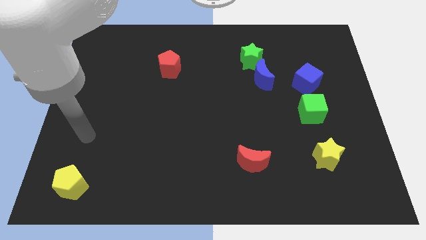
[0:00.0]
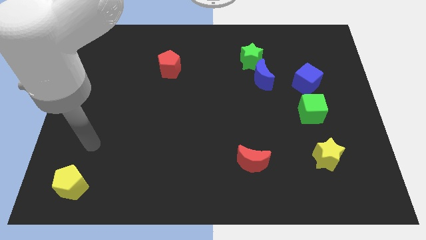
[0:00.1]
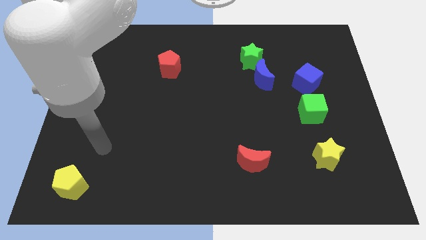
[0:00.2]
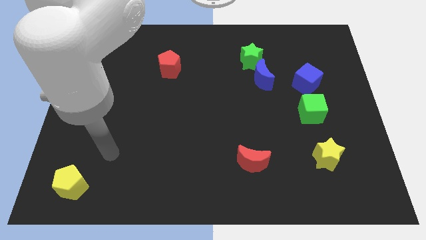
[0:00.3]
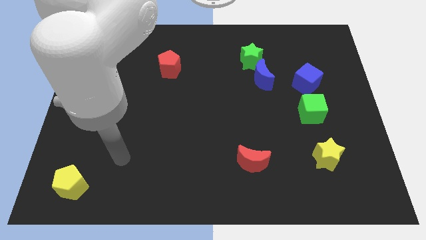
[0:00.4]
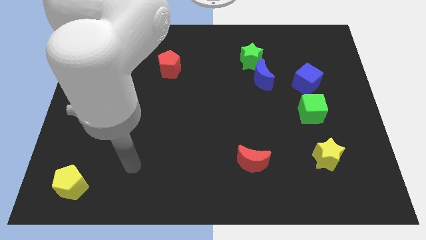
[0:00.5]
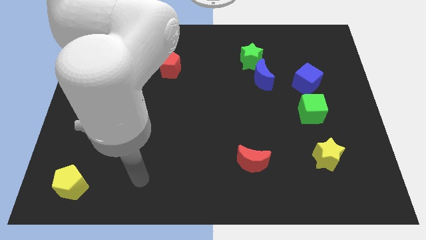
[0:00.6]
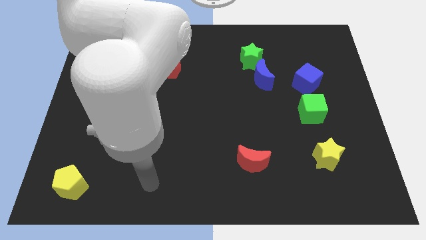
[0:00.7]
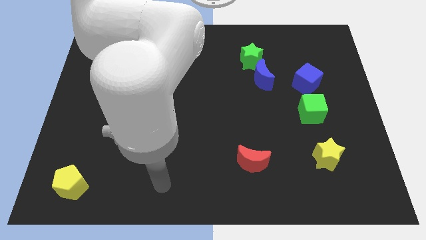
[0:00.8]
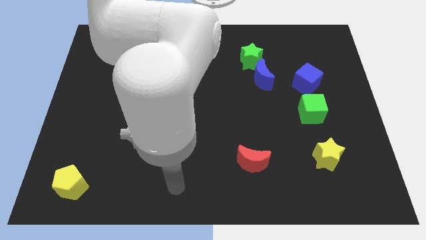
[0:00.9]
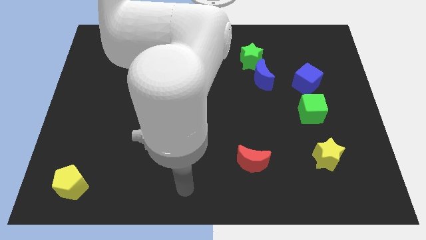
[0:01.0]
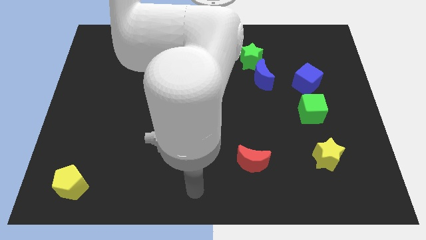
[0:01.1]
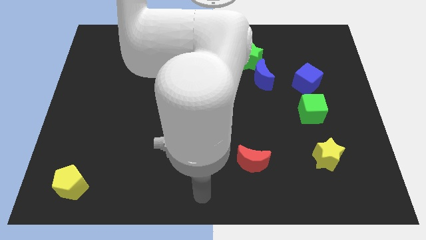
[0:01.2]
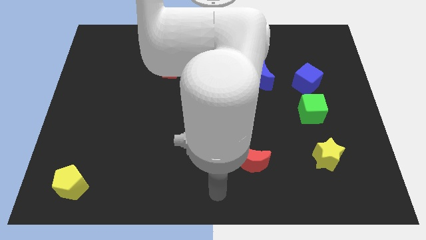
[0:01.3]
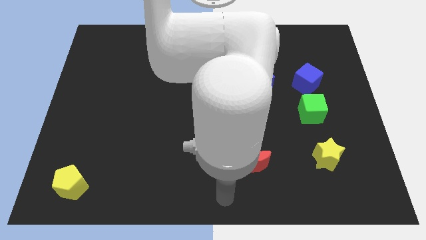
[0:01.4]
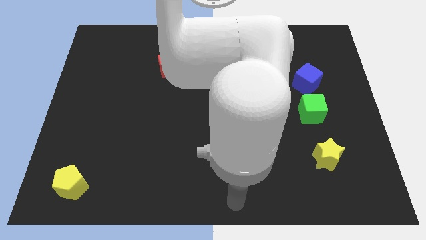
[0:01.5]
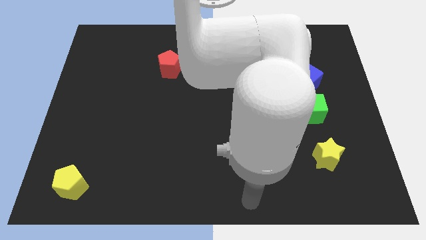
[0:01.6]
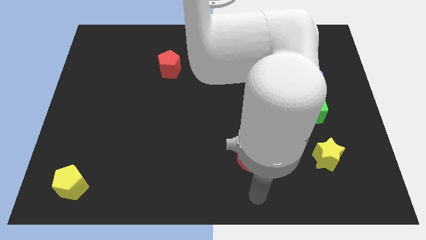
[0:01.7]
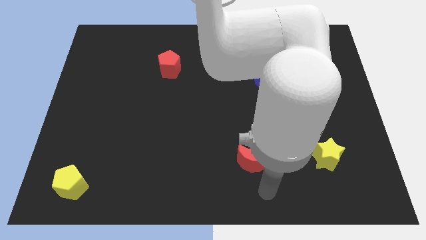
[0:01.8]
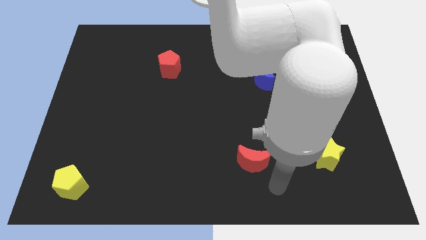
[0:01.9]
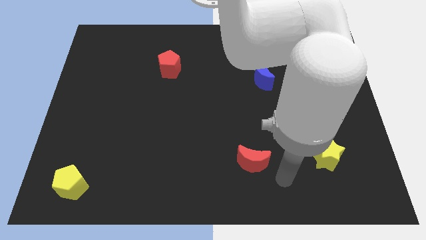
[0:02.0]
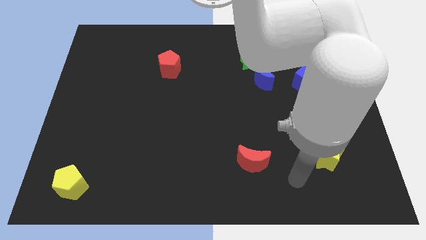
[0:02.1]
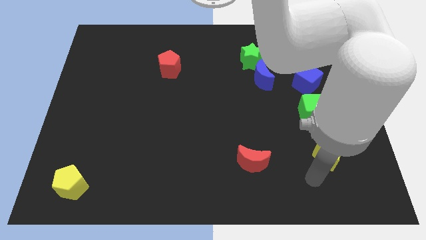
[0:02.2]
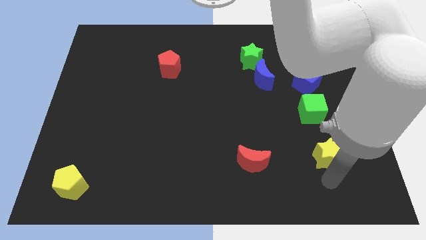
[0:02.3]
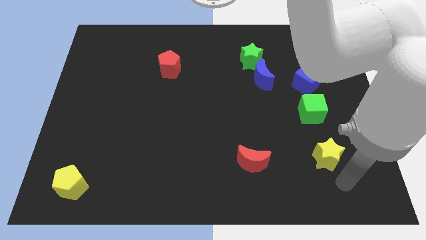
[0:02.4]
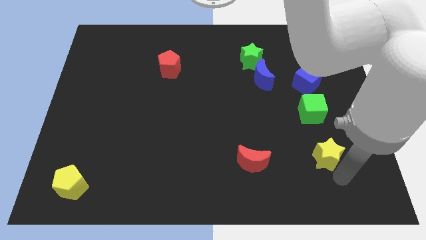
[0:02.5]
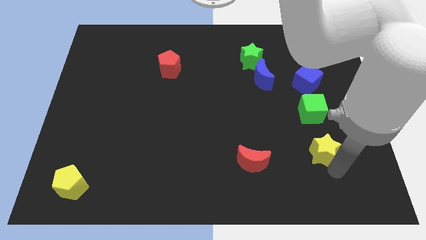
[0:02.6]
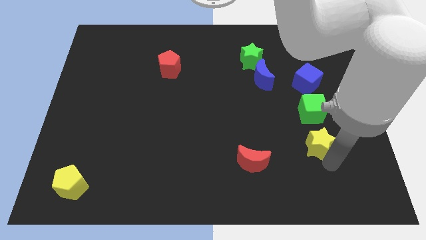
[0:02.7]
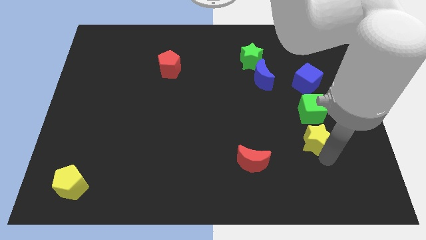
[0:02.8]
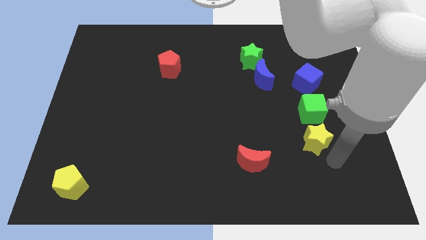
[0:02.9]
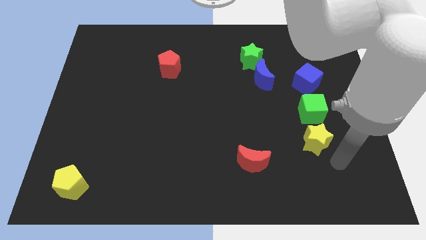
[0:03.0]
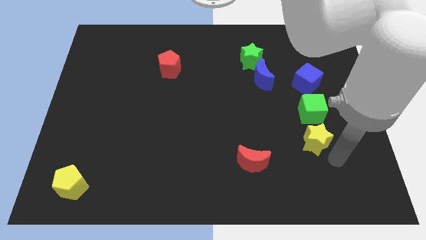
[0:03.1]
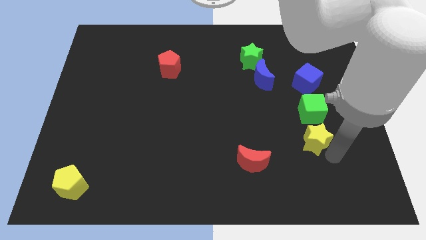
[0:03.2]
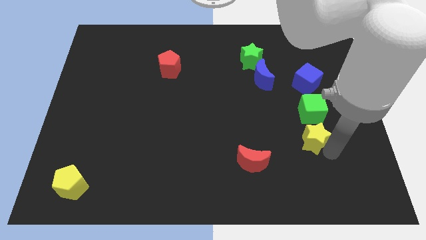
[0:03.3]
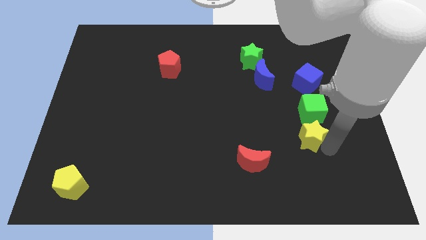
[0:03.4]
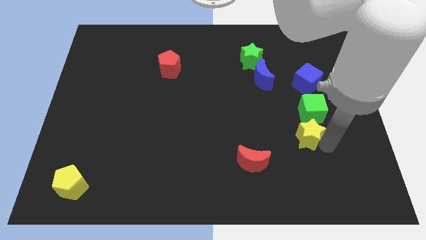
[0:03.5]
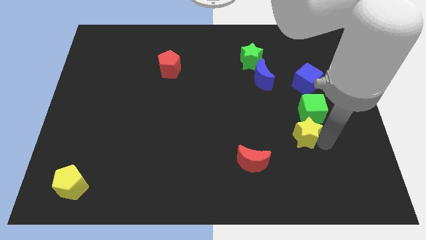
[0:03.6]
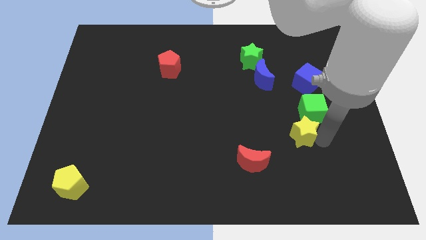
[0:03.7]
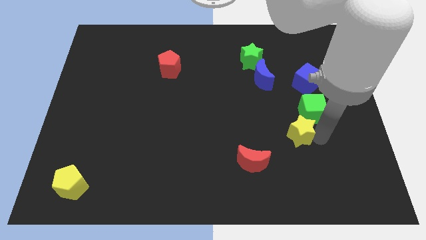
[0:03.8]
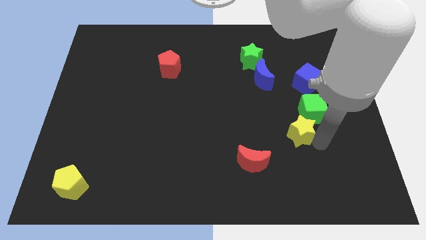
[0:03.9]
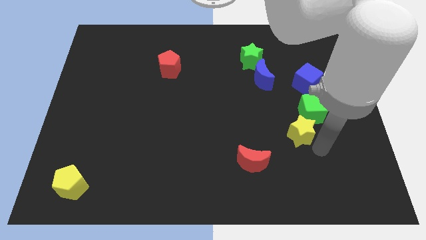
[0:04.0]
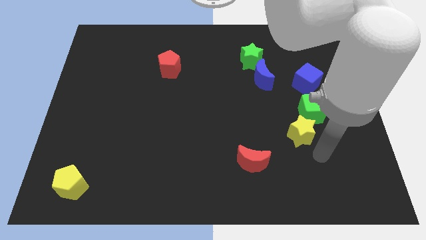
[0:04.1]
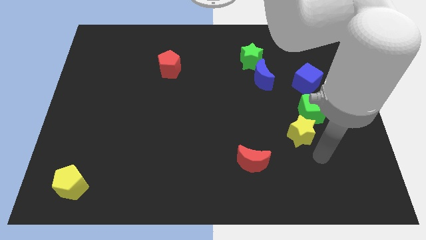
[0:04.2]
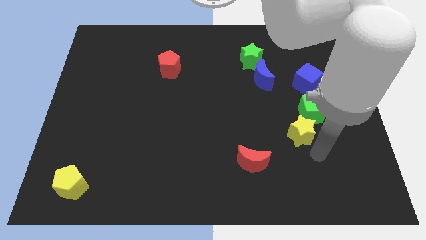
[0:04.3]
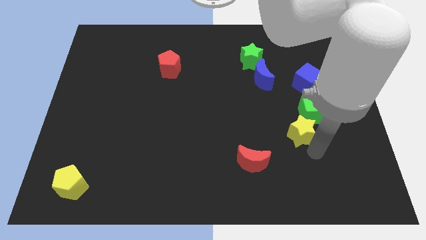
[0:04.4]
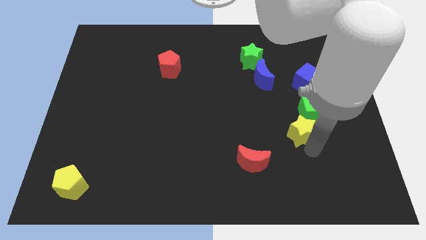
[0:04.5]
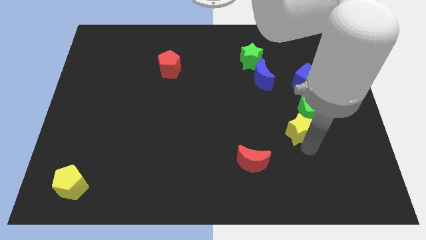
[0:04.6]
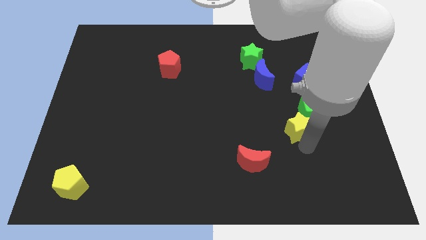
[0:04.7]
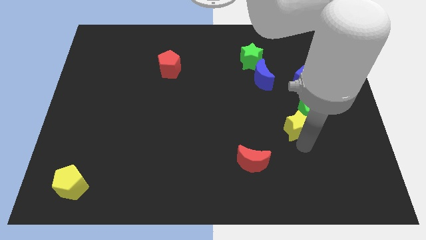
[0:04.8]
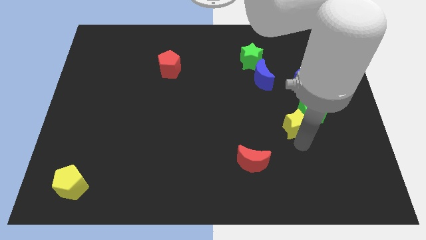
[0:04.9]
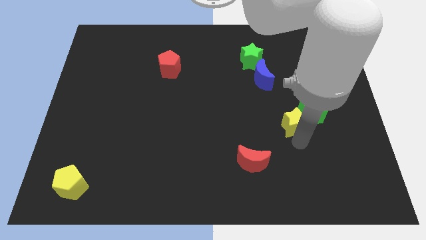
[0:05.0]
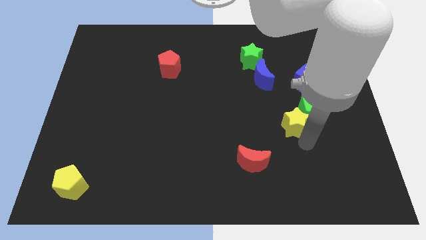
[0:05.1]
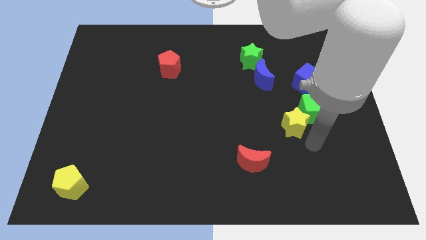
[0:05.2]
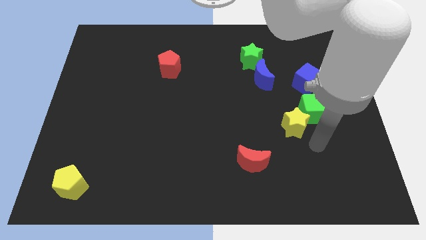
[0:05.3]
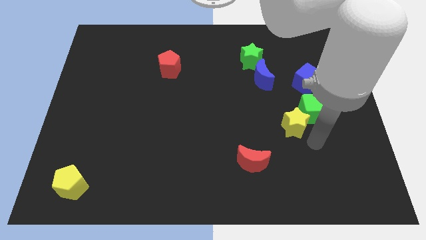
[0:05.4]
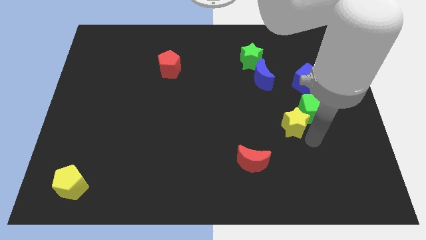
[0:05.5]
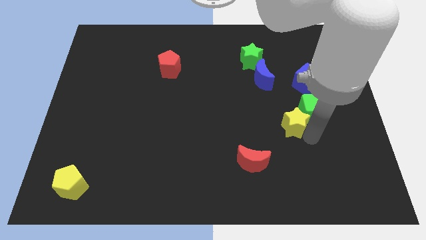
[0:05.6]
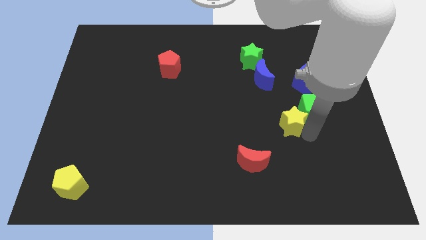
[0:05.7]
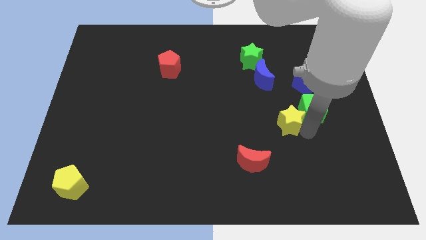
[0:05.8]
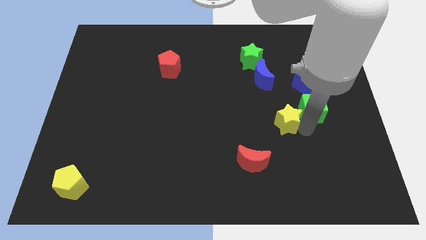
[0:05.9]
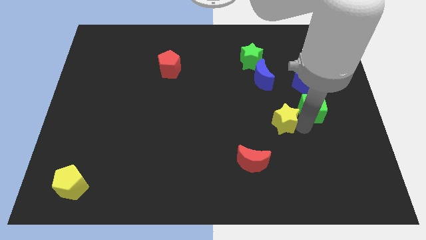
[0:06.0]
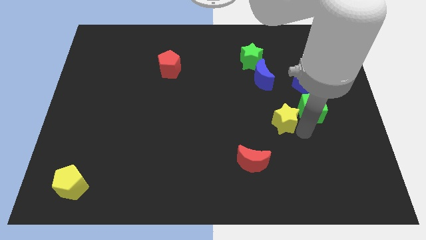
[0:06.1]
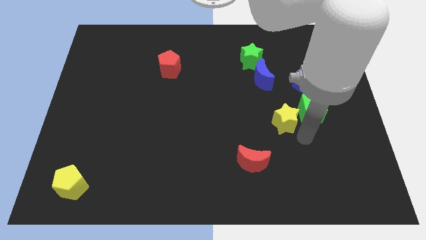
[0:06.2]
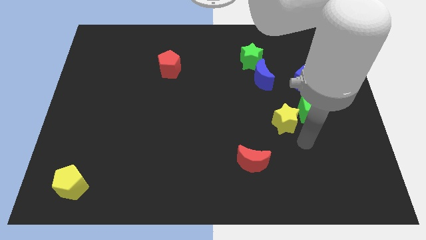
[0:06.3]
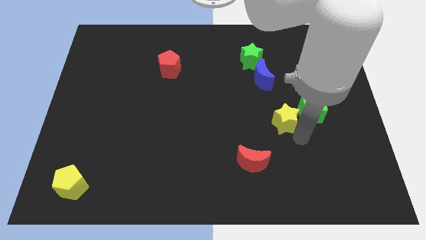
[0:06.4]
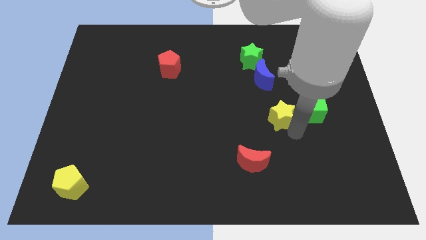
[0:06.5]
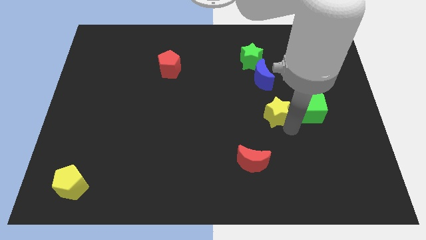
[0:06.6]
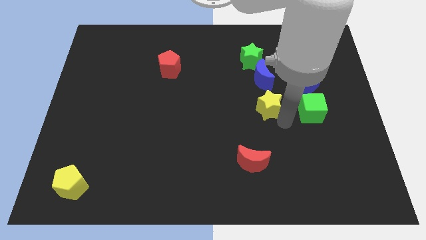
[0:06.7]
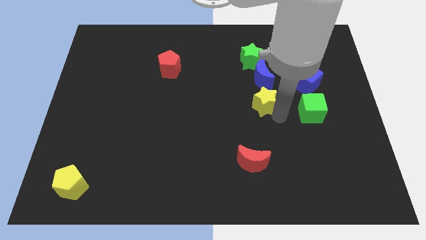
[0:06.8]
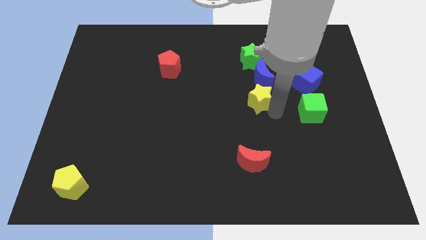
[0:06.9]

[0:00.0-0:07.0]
push the yellow star up and to the left diagonally

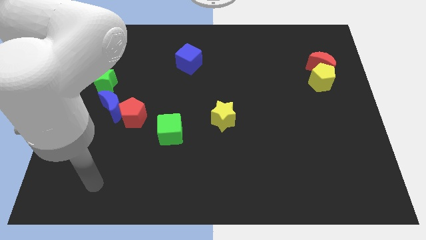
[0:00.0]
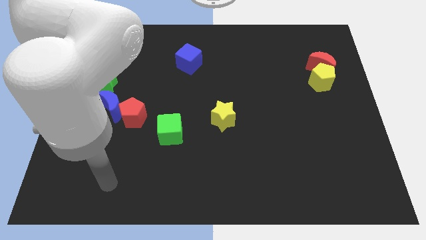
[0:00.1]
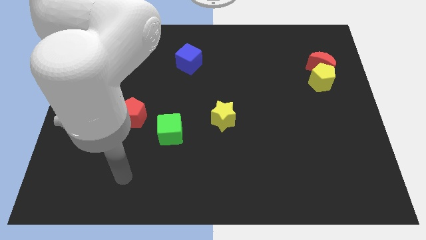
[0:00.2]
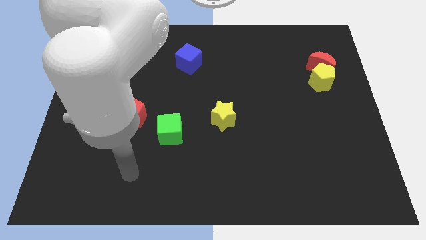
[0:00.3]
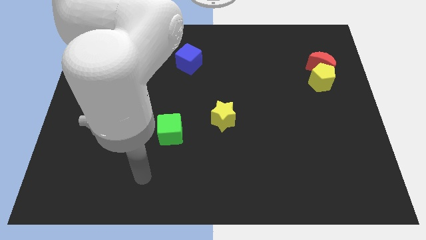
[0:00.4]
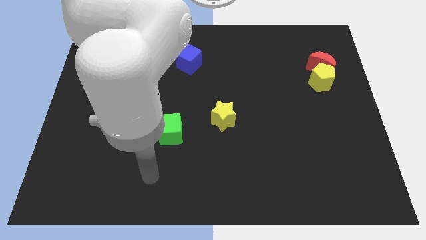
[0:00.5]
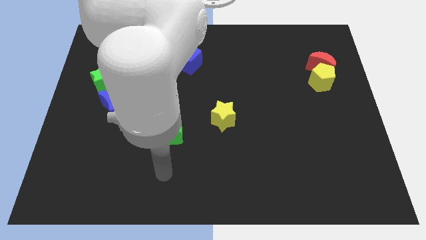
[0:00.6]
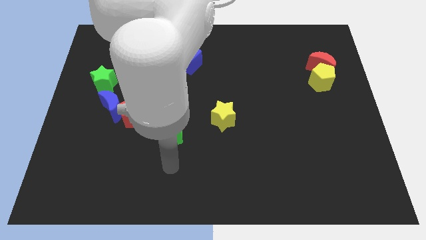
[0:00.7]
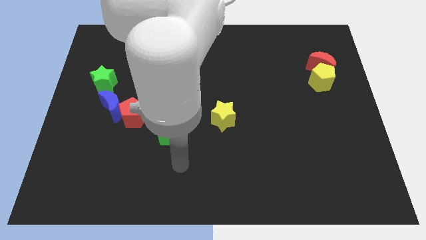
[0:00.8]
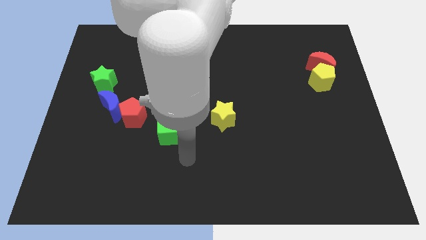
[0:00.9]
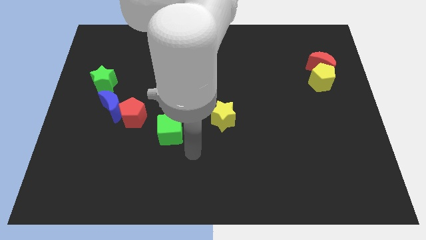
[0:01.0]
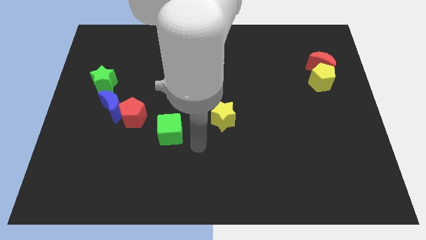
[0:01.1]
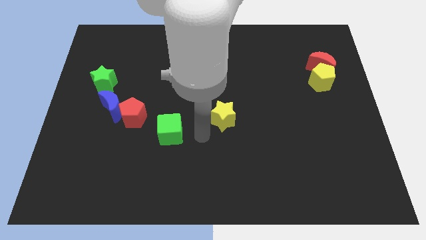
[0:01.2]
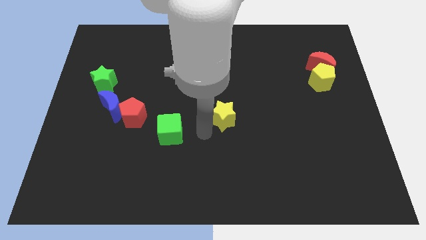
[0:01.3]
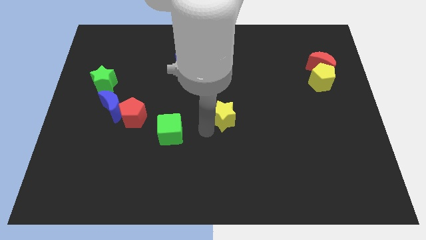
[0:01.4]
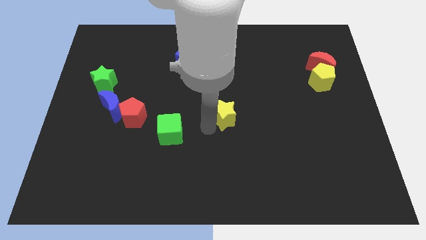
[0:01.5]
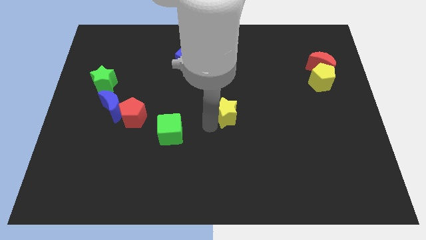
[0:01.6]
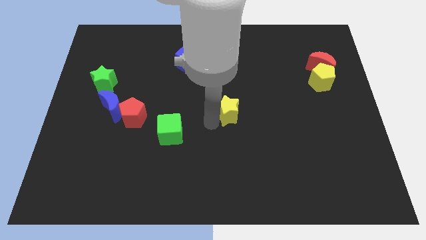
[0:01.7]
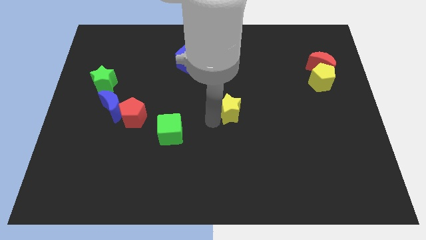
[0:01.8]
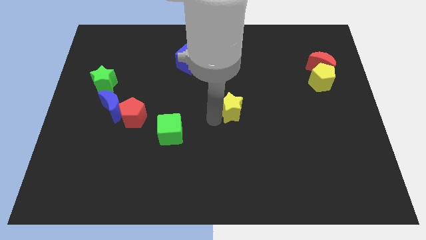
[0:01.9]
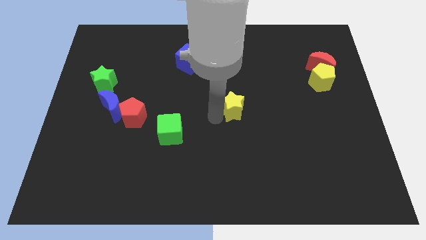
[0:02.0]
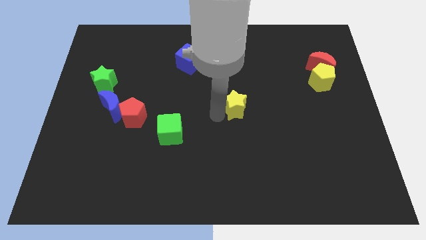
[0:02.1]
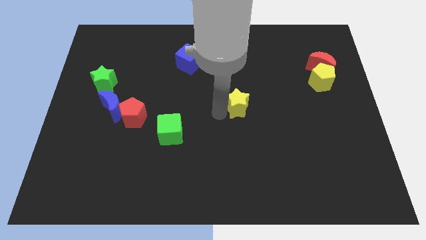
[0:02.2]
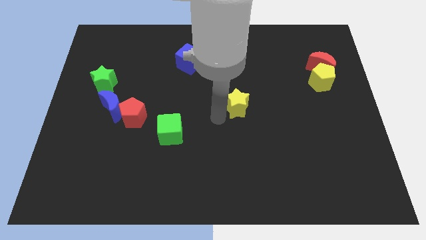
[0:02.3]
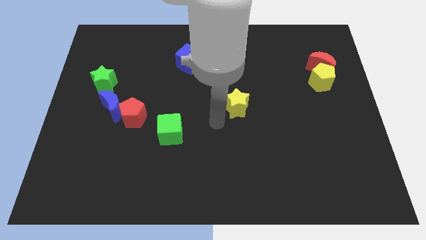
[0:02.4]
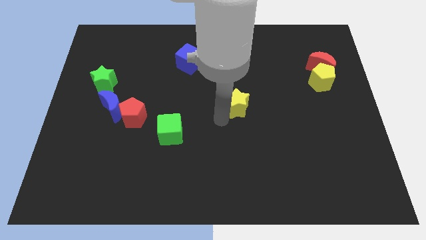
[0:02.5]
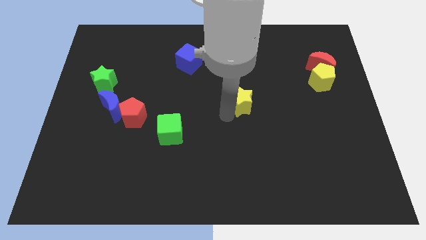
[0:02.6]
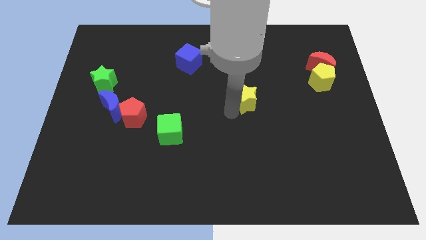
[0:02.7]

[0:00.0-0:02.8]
slide the yellow star a little upwards and right
